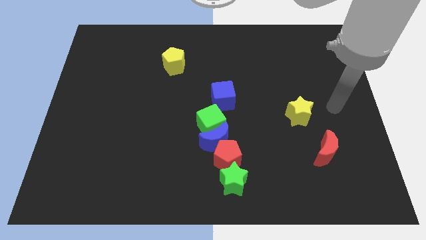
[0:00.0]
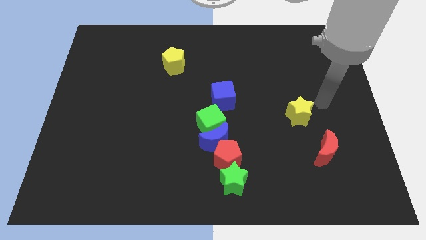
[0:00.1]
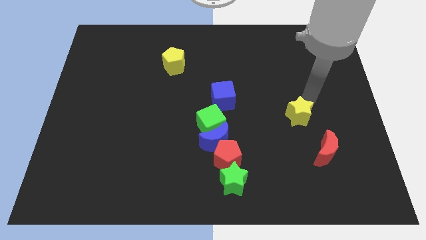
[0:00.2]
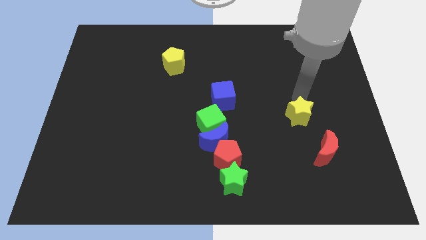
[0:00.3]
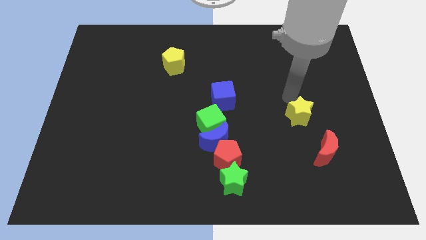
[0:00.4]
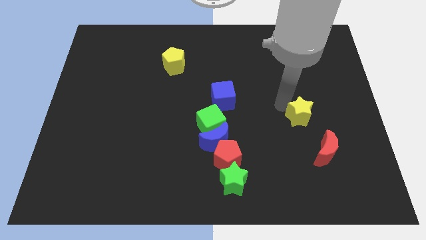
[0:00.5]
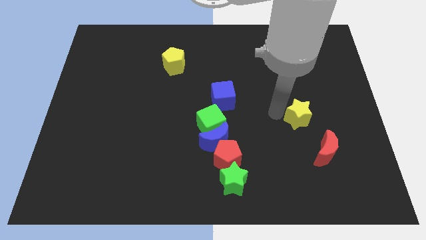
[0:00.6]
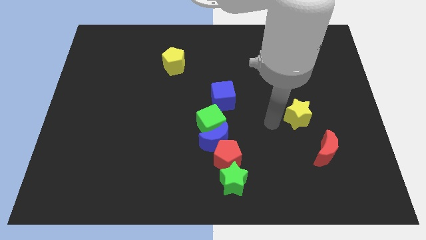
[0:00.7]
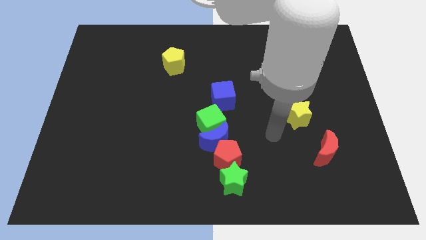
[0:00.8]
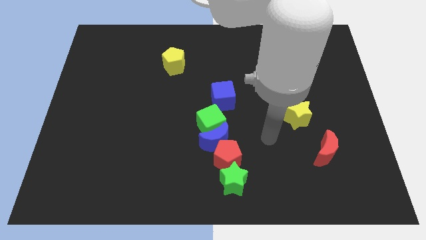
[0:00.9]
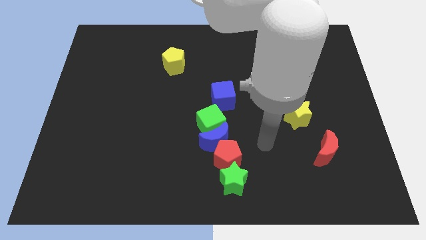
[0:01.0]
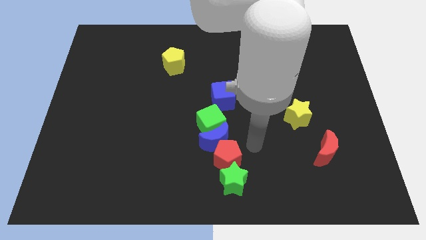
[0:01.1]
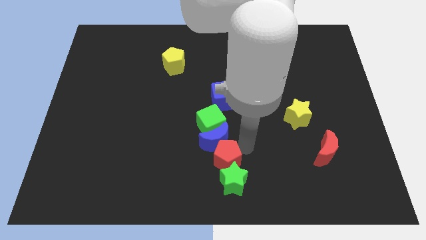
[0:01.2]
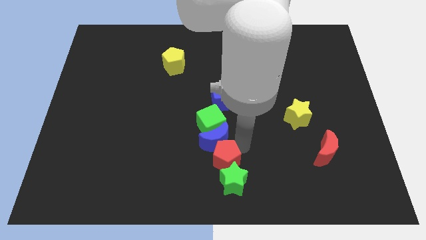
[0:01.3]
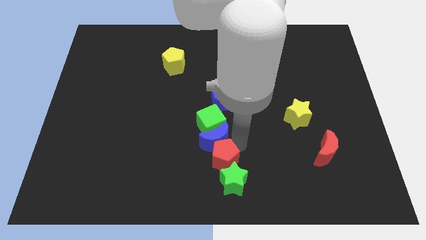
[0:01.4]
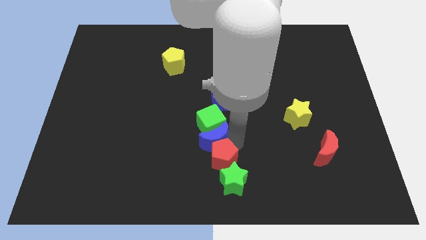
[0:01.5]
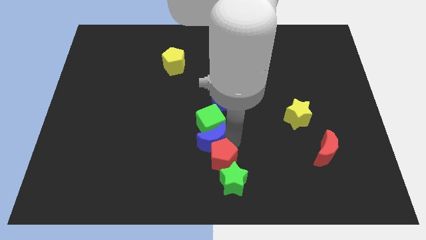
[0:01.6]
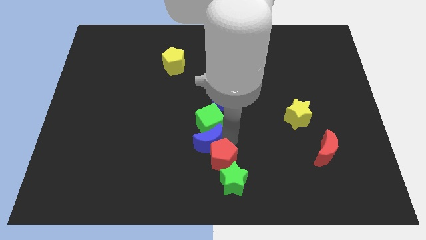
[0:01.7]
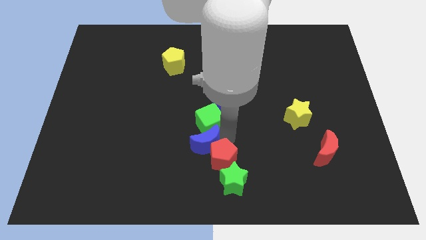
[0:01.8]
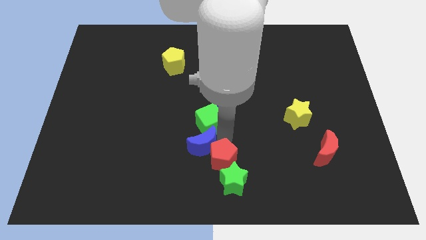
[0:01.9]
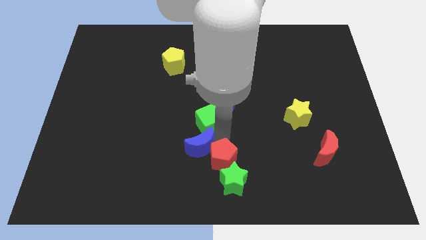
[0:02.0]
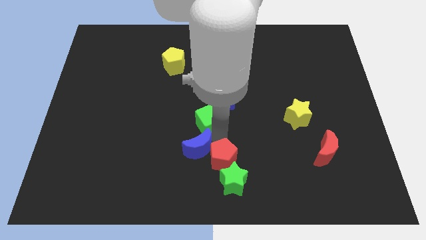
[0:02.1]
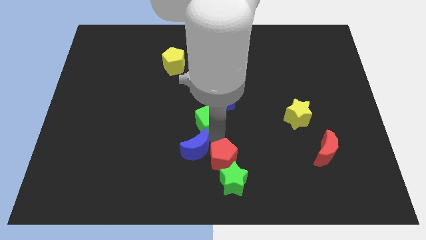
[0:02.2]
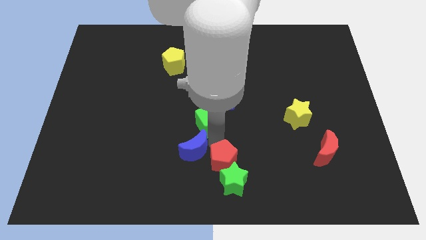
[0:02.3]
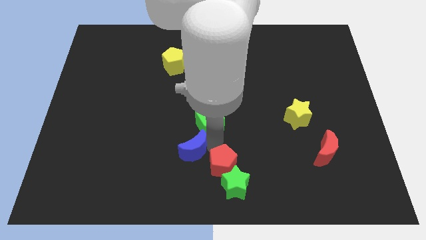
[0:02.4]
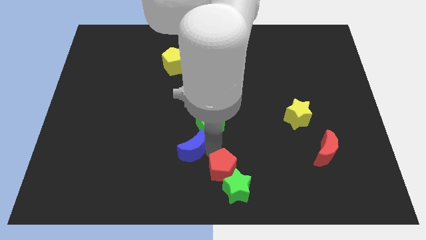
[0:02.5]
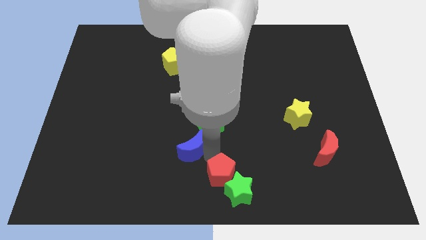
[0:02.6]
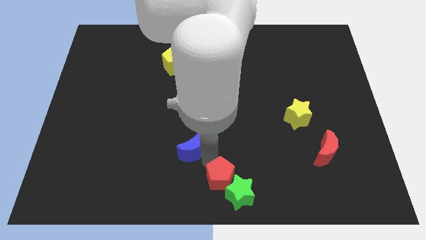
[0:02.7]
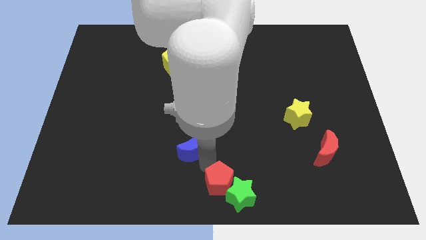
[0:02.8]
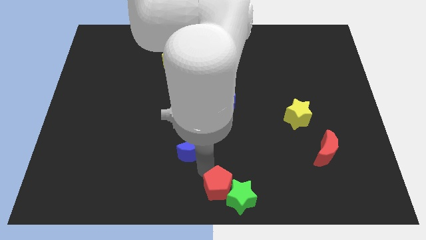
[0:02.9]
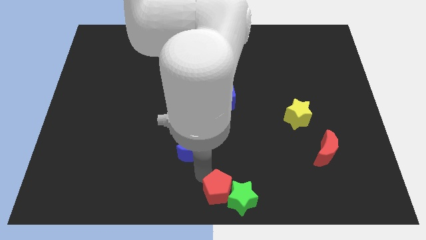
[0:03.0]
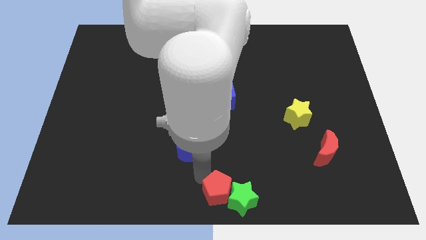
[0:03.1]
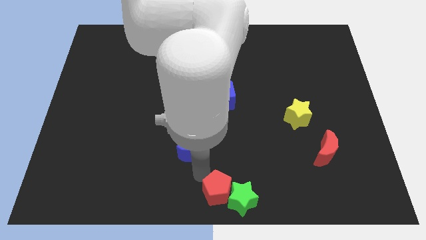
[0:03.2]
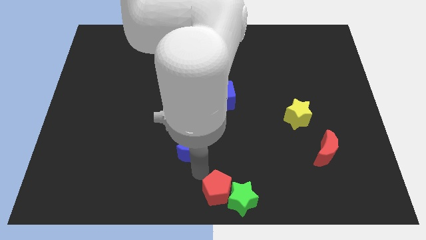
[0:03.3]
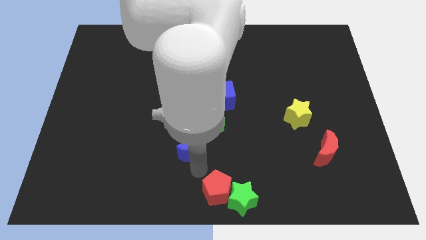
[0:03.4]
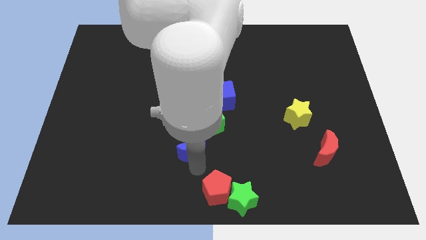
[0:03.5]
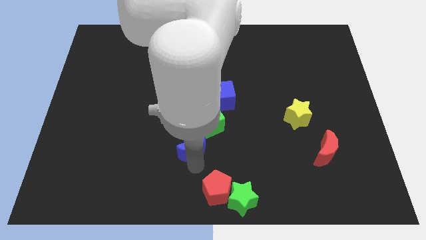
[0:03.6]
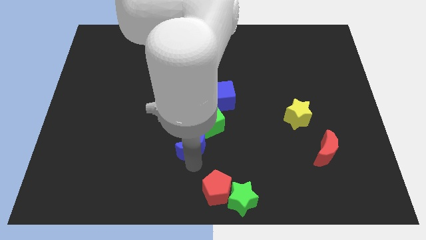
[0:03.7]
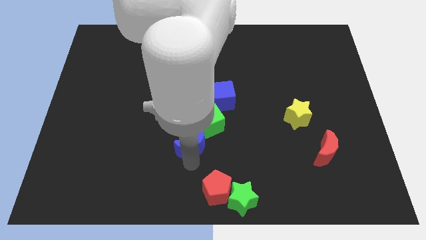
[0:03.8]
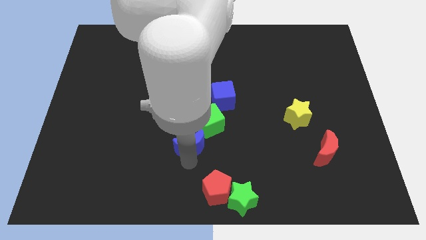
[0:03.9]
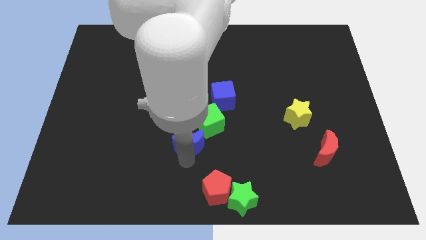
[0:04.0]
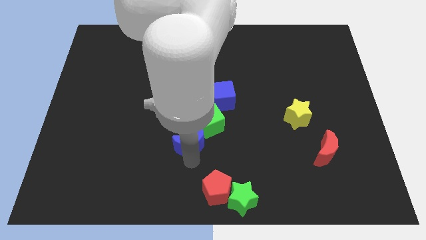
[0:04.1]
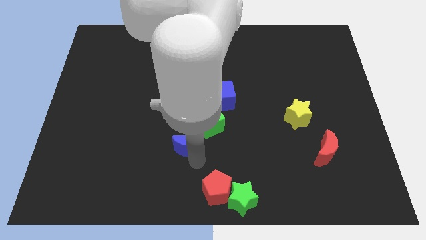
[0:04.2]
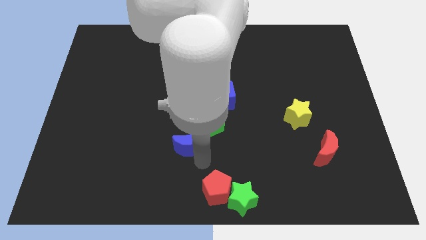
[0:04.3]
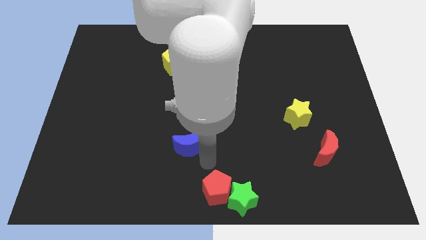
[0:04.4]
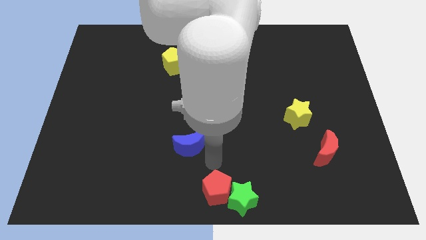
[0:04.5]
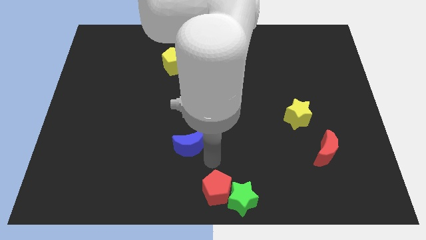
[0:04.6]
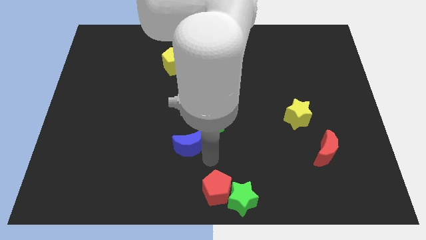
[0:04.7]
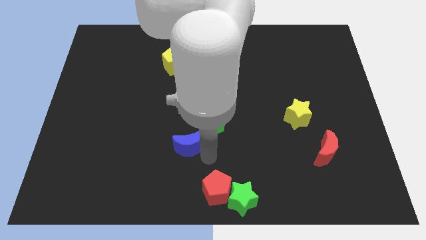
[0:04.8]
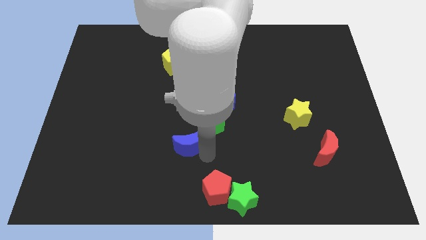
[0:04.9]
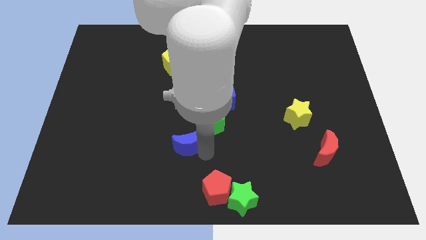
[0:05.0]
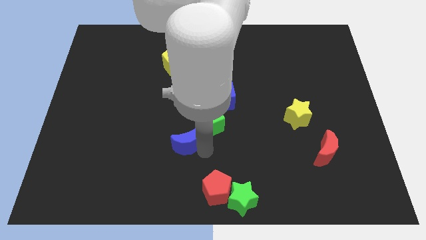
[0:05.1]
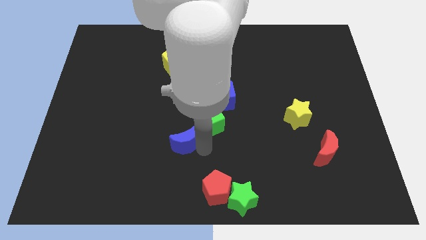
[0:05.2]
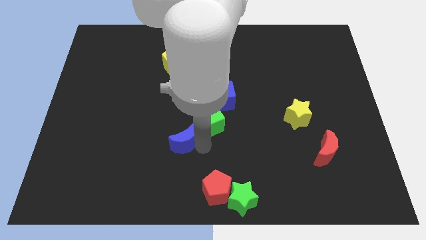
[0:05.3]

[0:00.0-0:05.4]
pull the blue moon apart from the clump

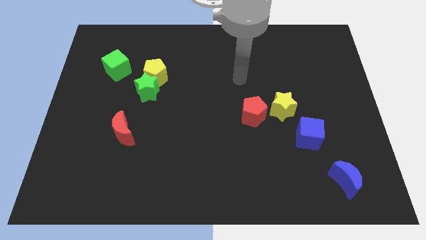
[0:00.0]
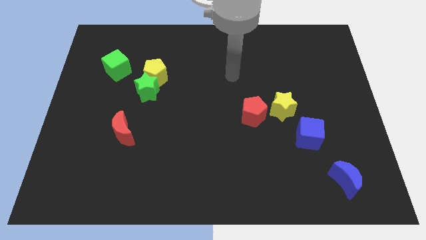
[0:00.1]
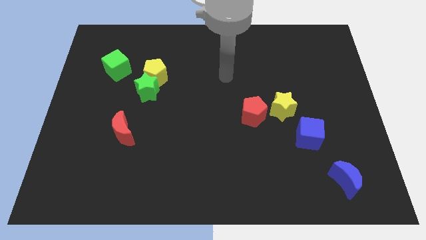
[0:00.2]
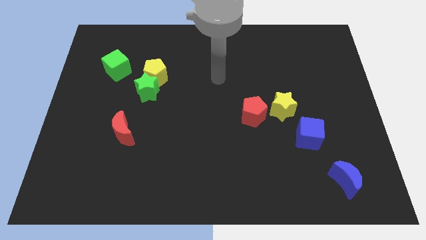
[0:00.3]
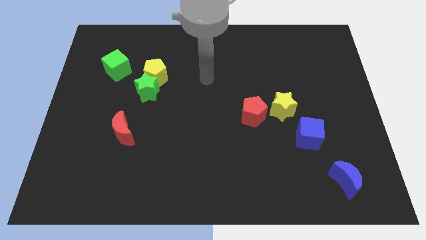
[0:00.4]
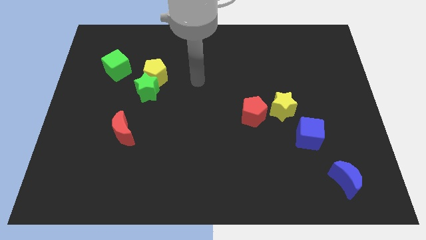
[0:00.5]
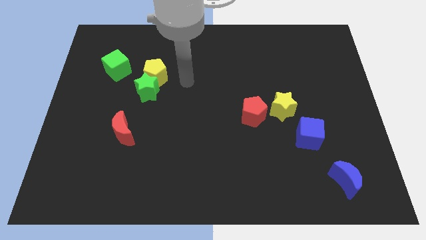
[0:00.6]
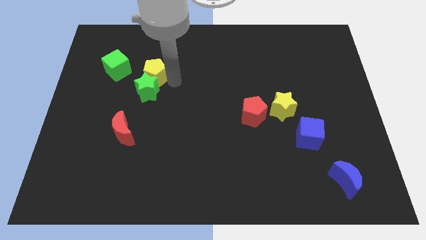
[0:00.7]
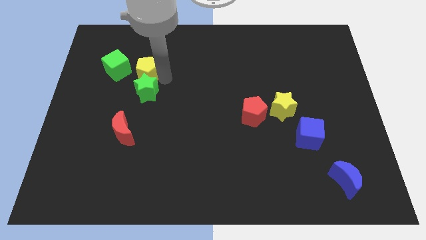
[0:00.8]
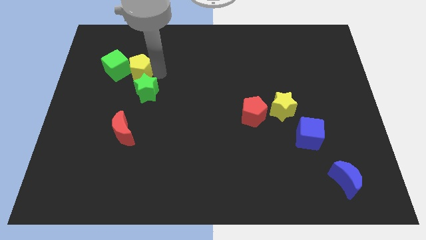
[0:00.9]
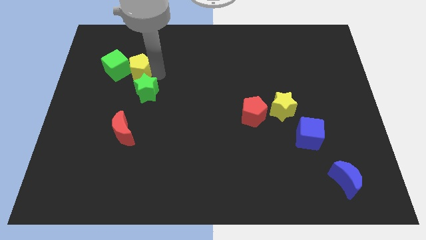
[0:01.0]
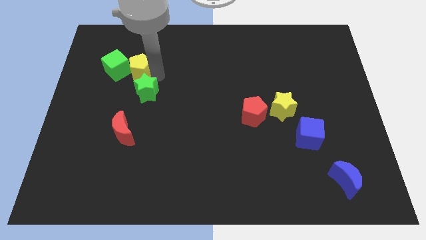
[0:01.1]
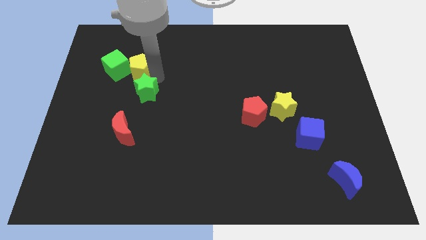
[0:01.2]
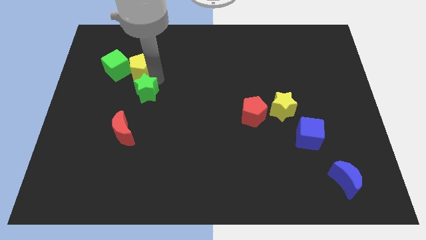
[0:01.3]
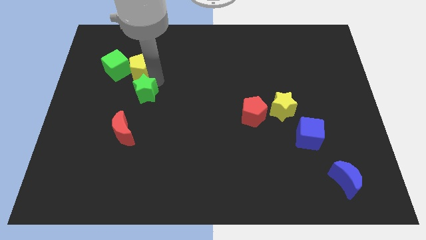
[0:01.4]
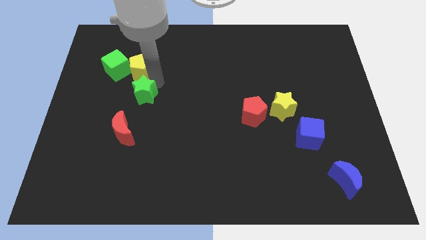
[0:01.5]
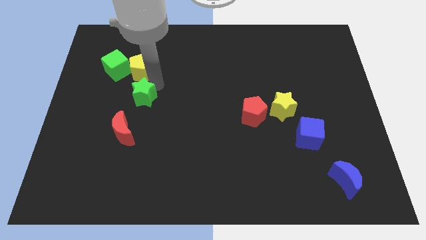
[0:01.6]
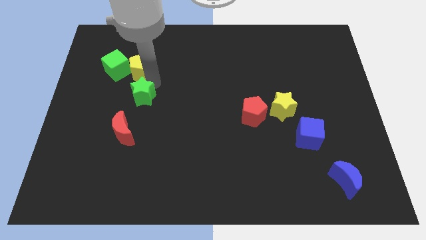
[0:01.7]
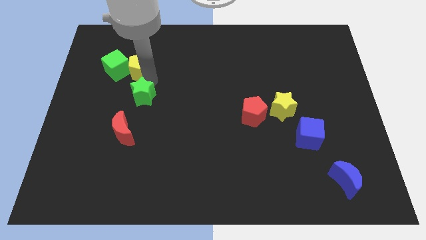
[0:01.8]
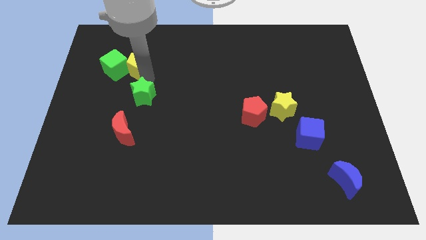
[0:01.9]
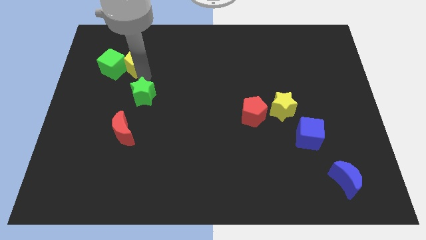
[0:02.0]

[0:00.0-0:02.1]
separate the green star from the yellow pentagon

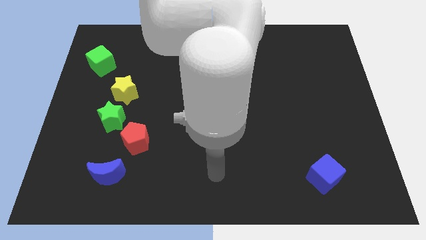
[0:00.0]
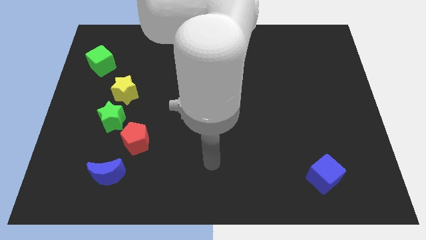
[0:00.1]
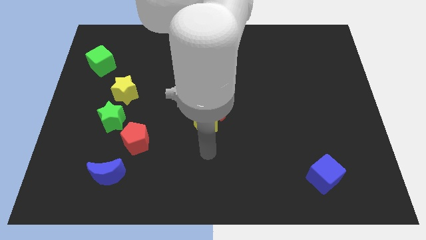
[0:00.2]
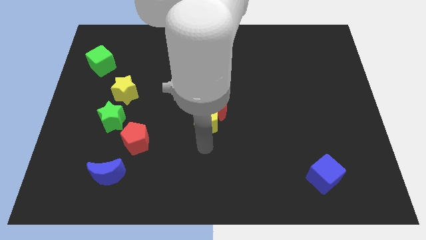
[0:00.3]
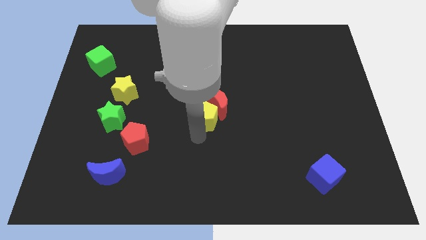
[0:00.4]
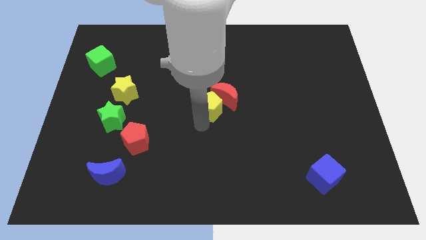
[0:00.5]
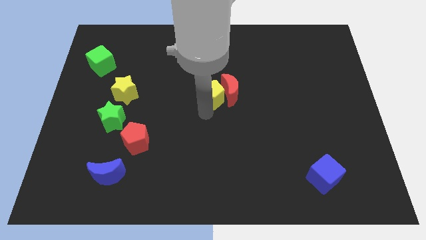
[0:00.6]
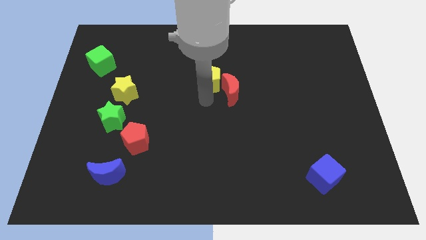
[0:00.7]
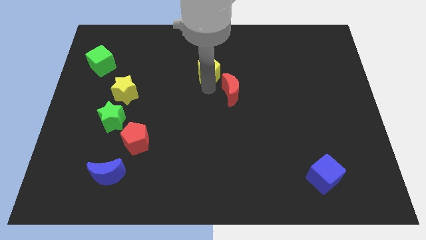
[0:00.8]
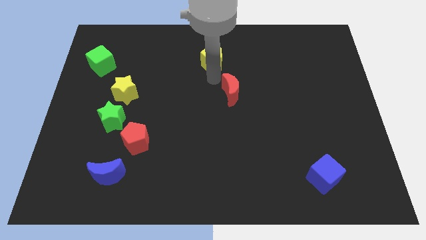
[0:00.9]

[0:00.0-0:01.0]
pull the red moon apart from the yellow pentagon

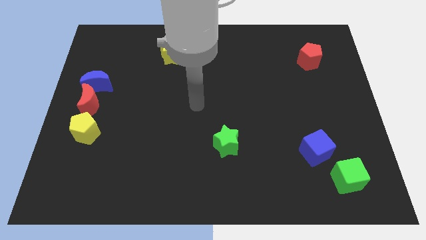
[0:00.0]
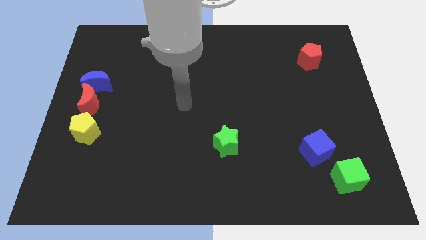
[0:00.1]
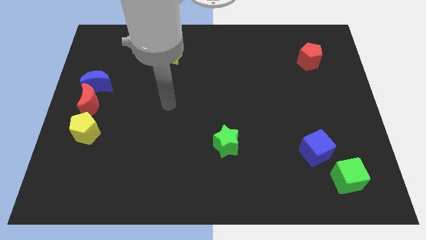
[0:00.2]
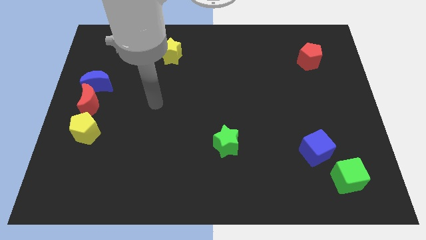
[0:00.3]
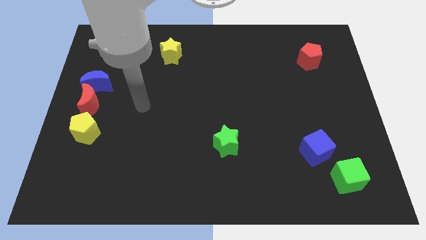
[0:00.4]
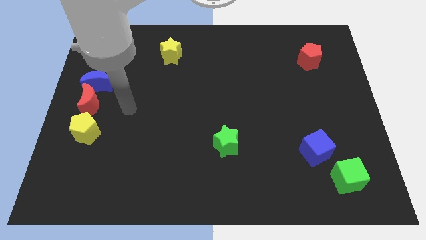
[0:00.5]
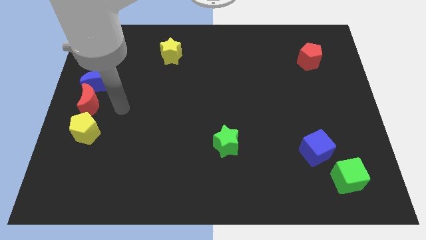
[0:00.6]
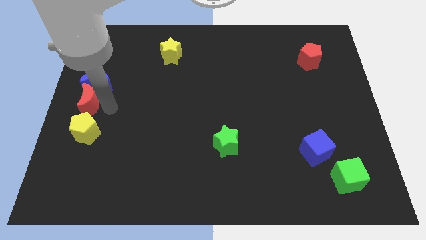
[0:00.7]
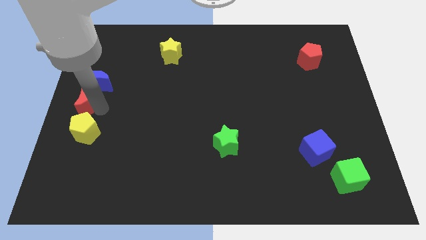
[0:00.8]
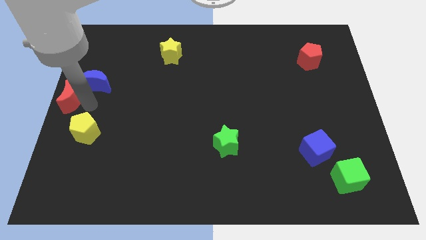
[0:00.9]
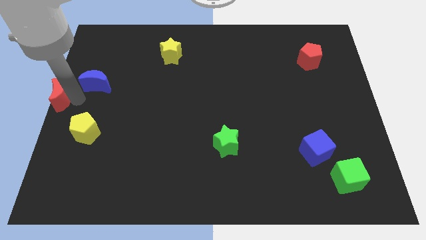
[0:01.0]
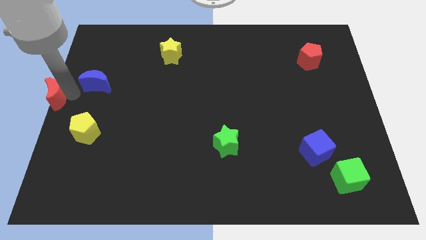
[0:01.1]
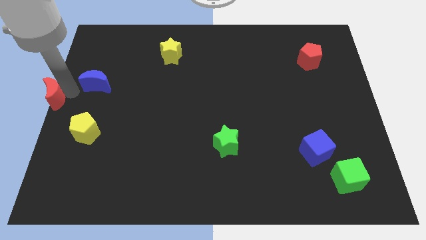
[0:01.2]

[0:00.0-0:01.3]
pull the blue moon apart from the red moon
